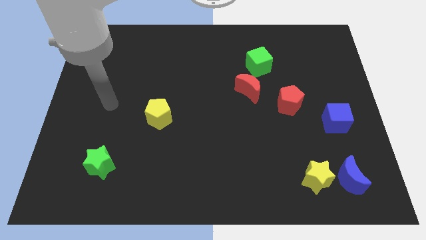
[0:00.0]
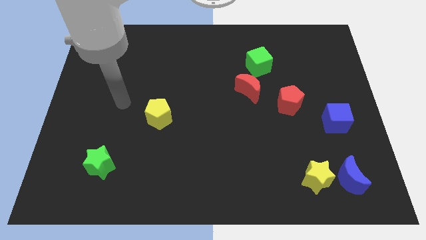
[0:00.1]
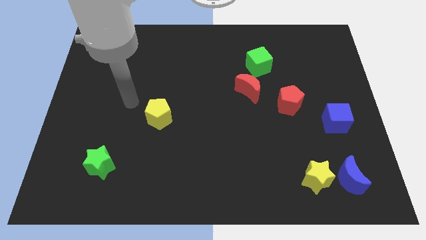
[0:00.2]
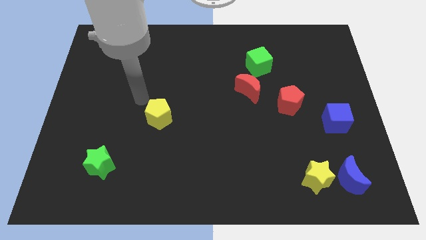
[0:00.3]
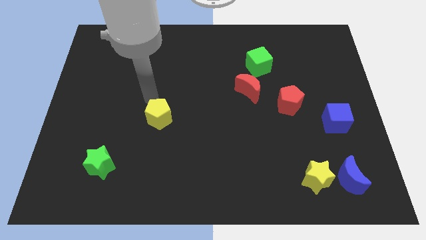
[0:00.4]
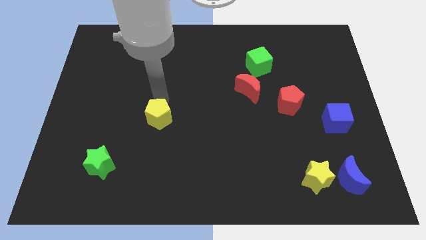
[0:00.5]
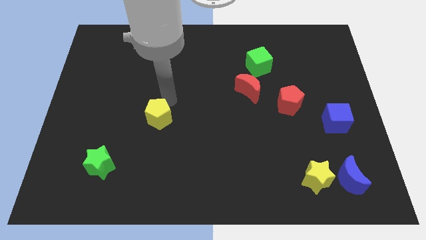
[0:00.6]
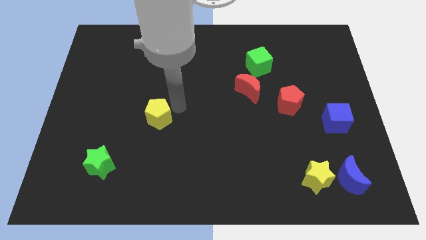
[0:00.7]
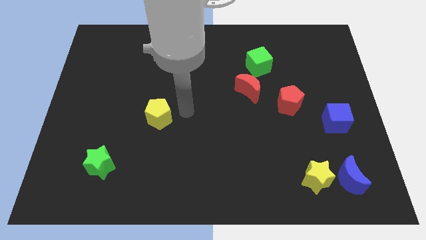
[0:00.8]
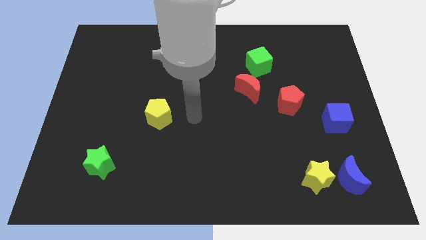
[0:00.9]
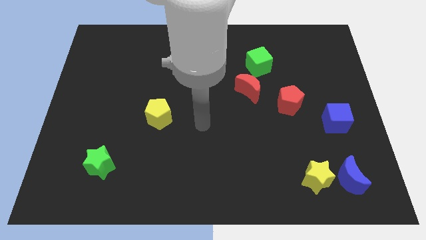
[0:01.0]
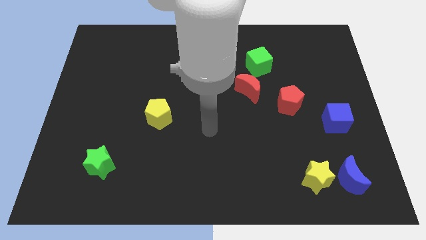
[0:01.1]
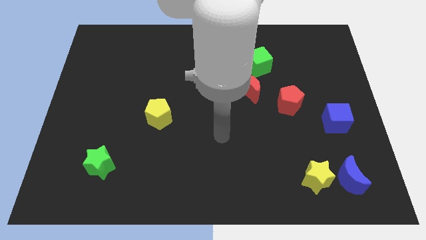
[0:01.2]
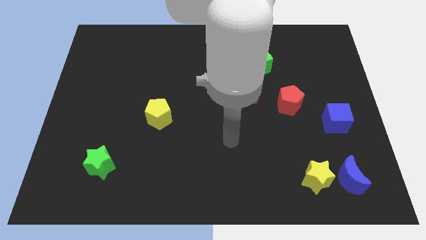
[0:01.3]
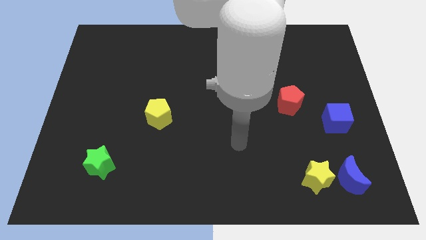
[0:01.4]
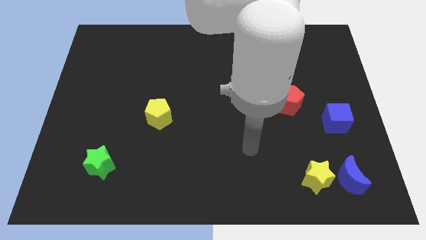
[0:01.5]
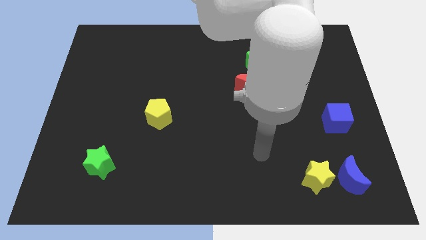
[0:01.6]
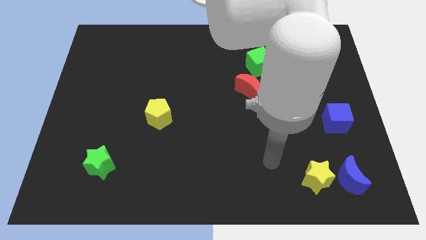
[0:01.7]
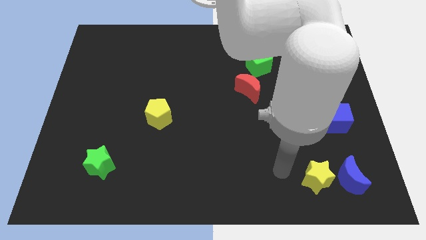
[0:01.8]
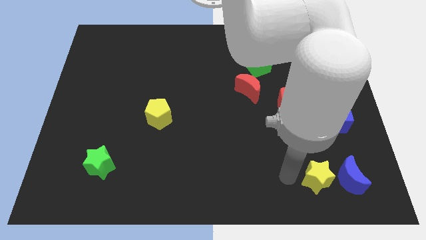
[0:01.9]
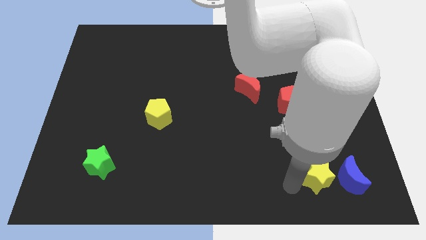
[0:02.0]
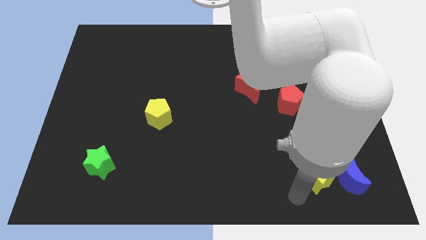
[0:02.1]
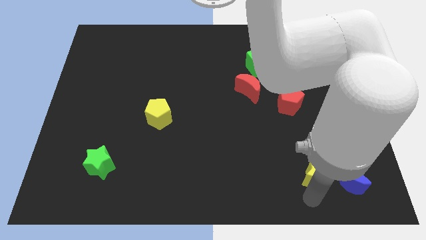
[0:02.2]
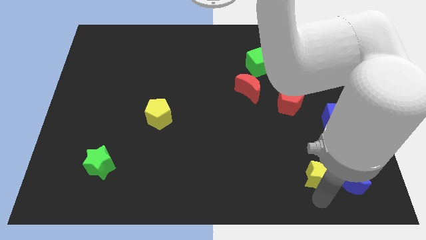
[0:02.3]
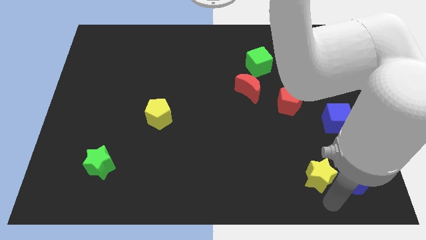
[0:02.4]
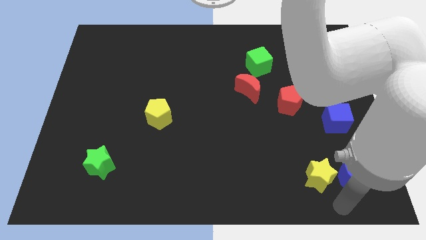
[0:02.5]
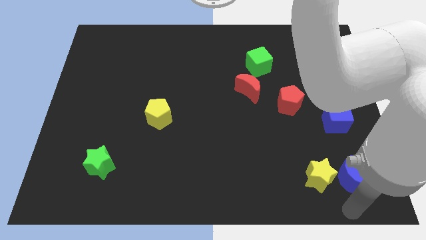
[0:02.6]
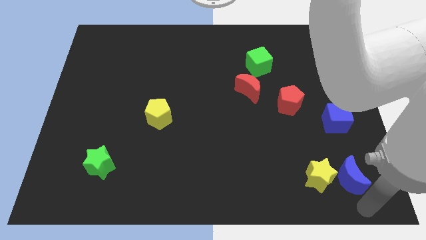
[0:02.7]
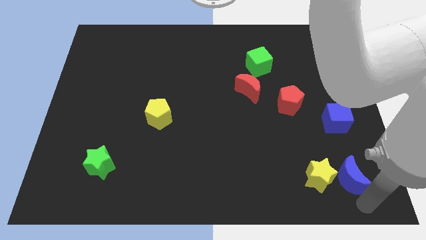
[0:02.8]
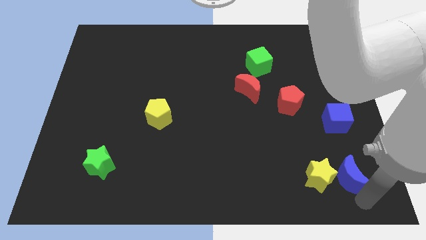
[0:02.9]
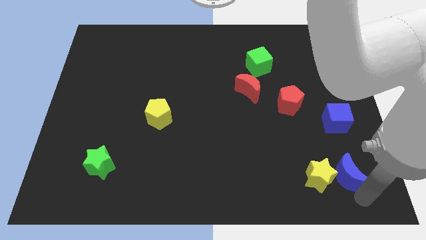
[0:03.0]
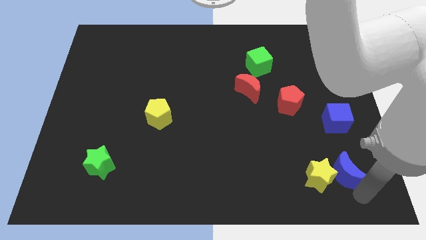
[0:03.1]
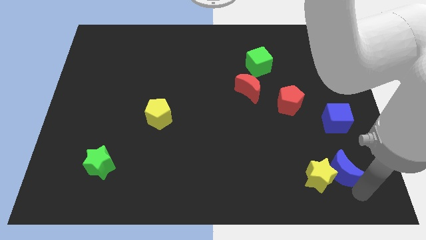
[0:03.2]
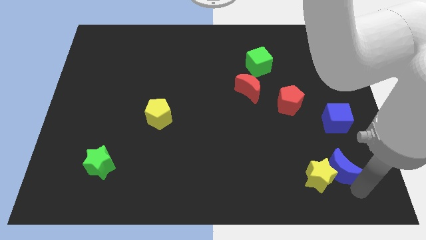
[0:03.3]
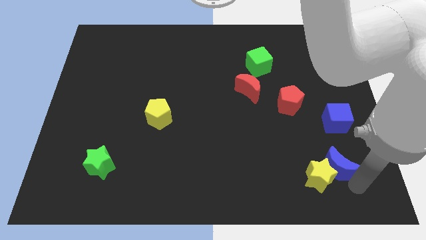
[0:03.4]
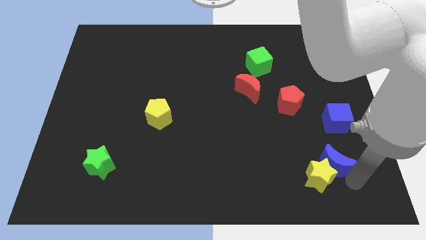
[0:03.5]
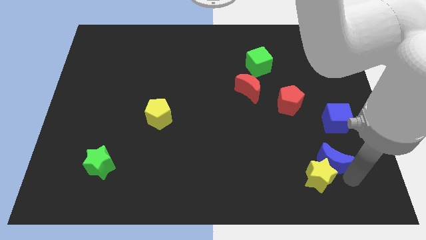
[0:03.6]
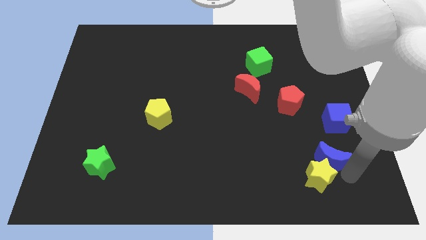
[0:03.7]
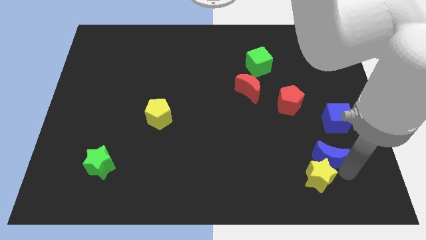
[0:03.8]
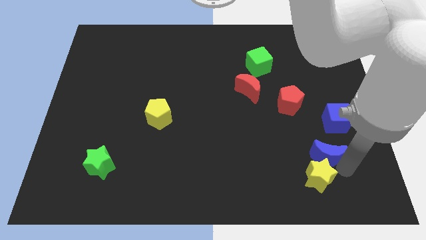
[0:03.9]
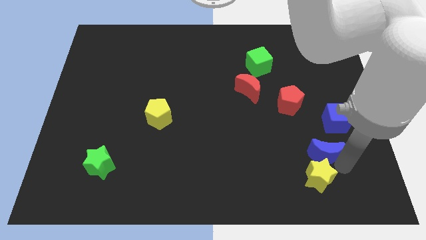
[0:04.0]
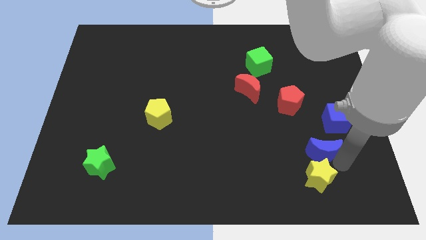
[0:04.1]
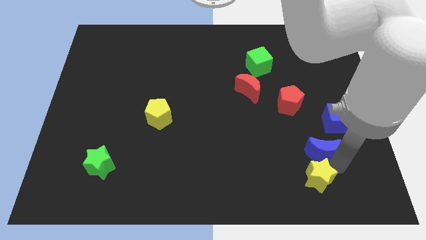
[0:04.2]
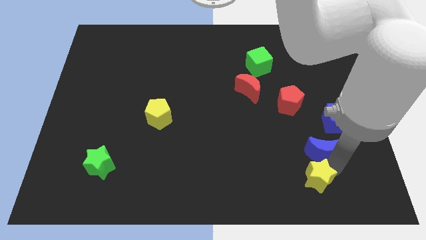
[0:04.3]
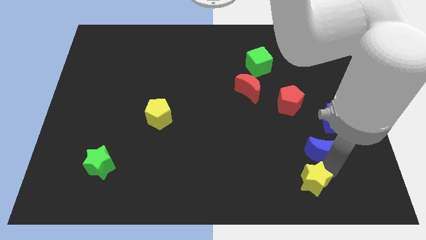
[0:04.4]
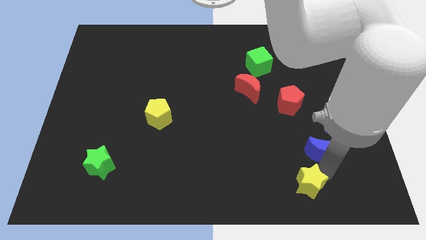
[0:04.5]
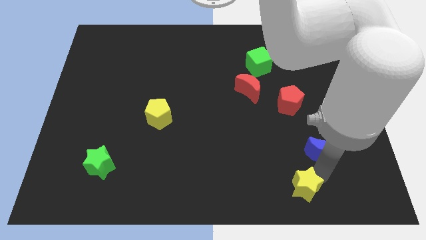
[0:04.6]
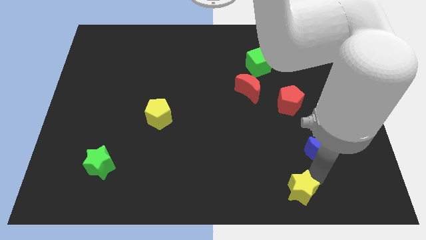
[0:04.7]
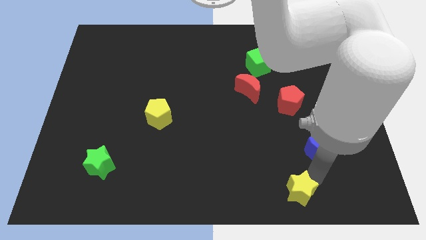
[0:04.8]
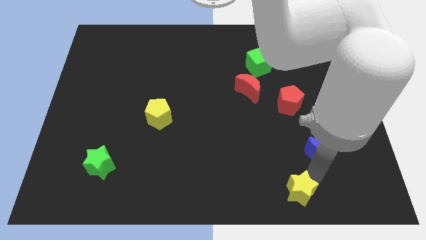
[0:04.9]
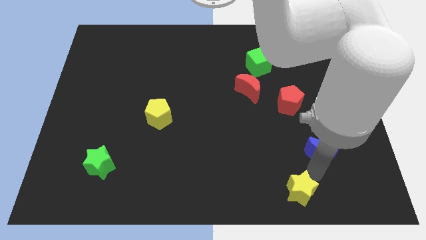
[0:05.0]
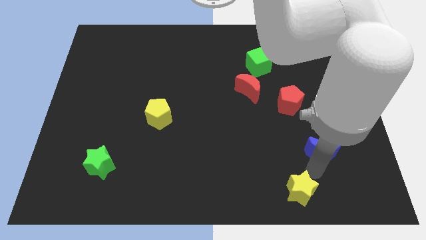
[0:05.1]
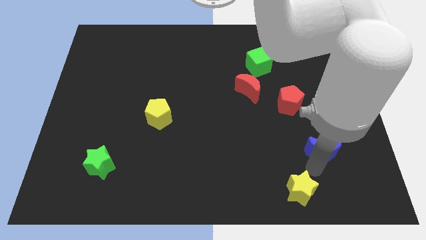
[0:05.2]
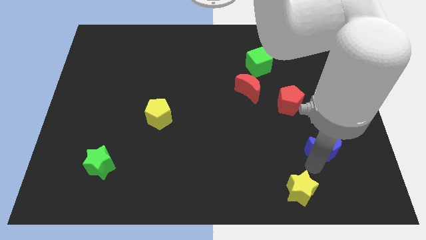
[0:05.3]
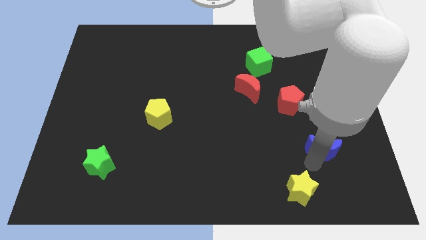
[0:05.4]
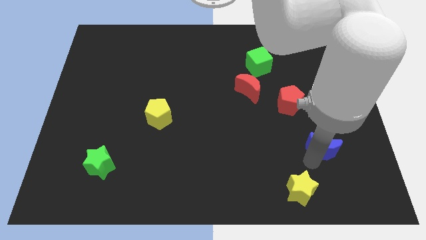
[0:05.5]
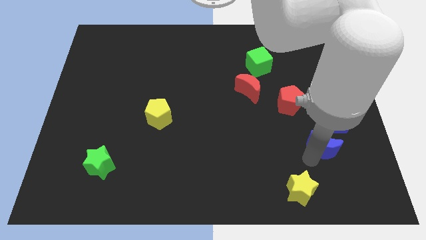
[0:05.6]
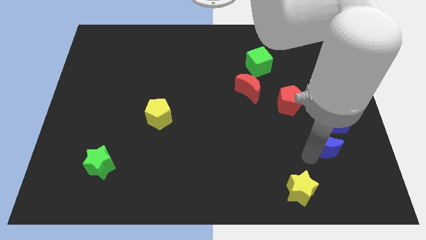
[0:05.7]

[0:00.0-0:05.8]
slide the blue moon slightly up

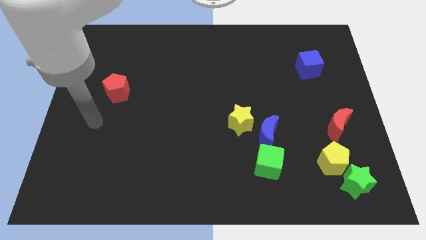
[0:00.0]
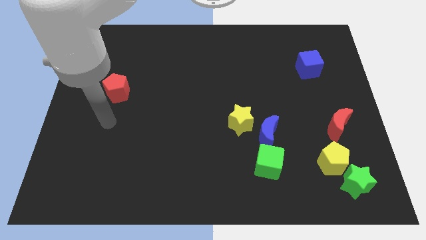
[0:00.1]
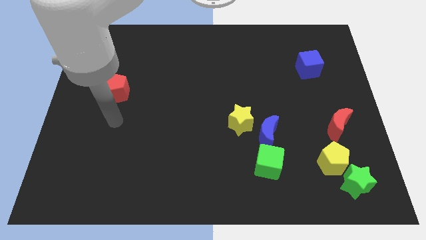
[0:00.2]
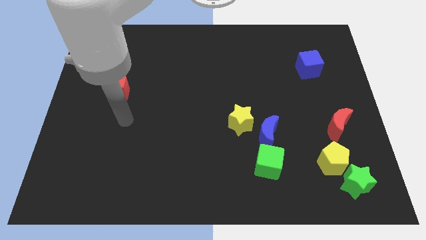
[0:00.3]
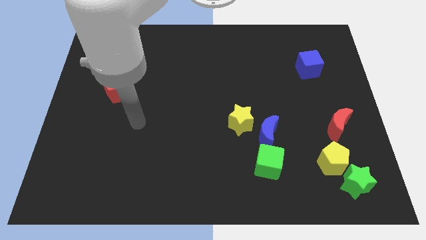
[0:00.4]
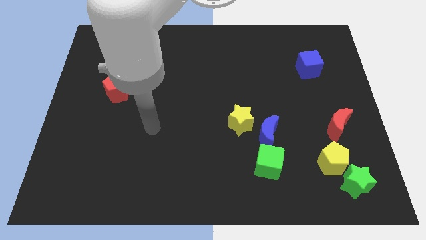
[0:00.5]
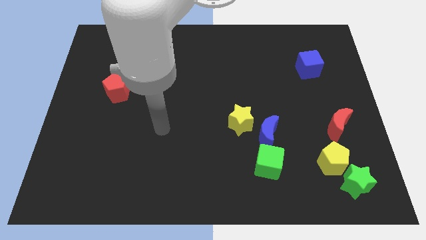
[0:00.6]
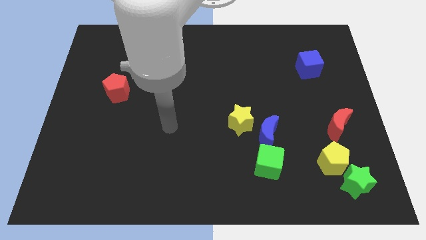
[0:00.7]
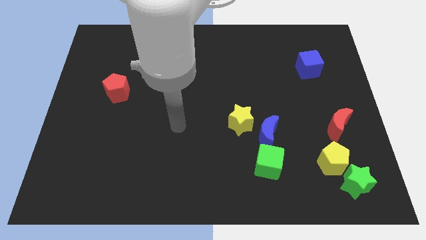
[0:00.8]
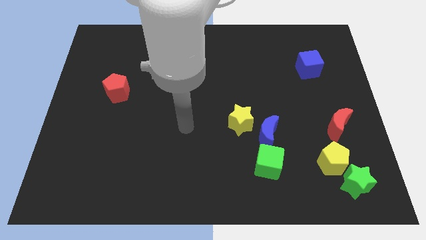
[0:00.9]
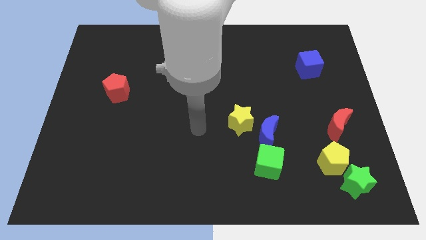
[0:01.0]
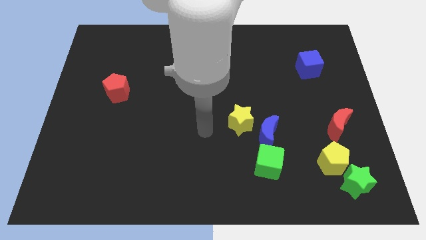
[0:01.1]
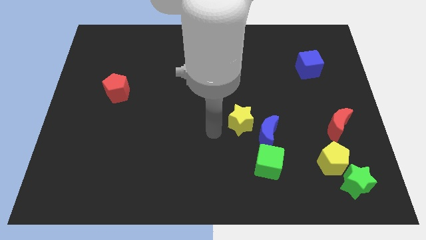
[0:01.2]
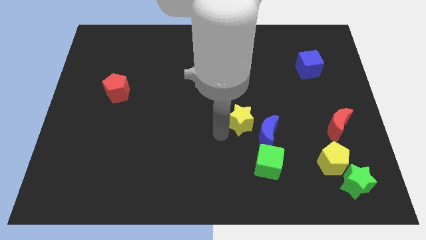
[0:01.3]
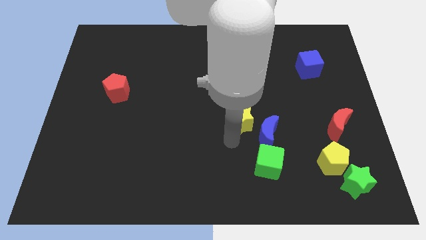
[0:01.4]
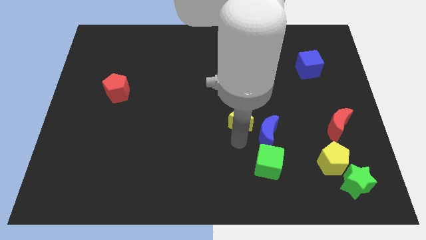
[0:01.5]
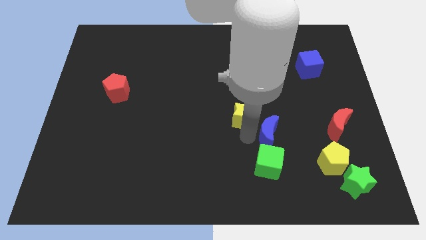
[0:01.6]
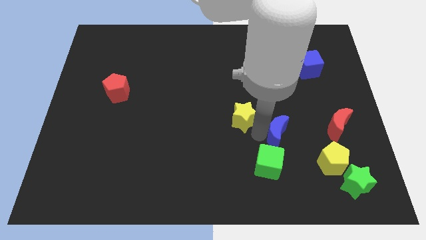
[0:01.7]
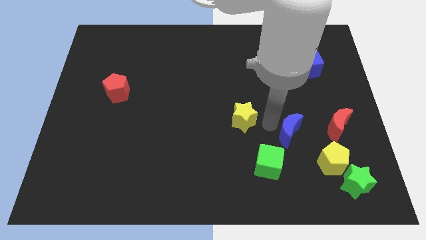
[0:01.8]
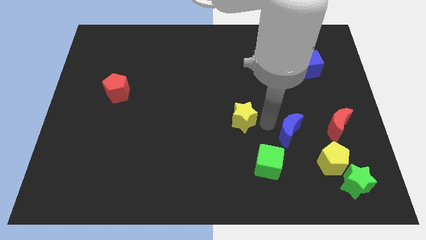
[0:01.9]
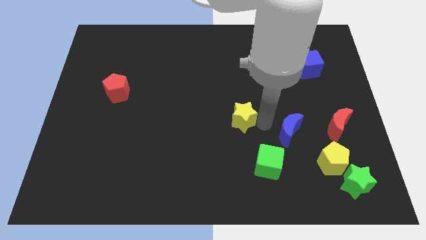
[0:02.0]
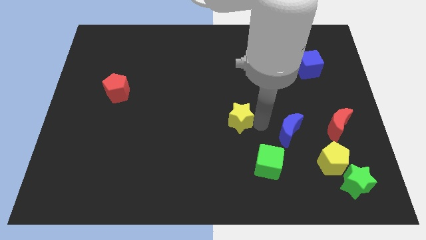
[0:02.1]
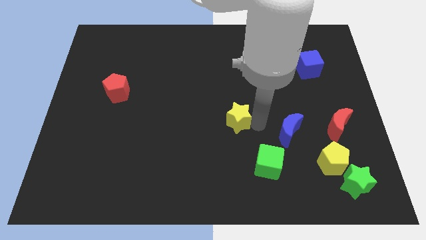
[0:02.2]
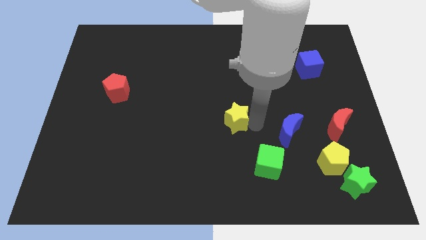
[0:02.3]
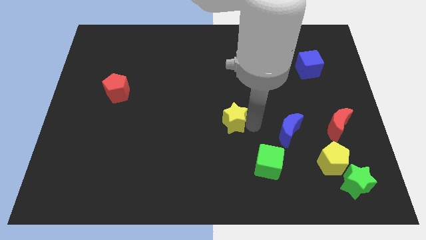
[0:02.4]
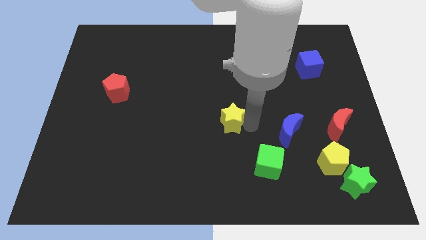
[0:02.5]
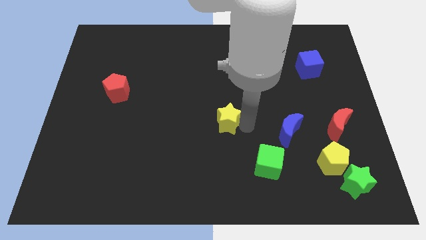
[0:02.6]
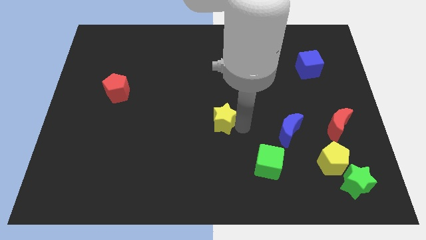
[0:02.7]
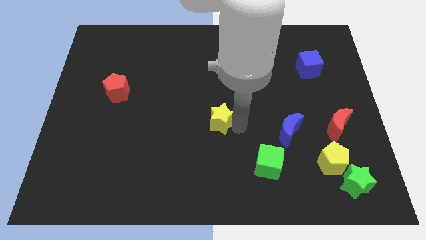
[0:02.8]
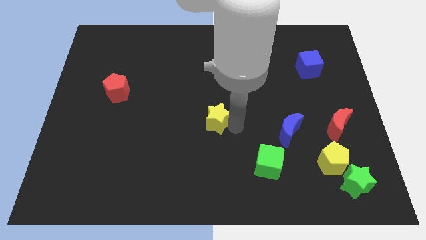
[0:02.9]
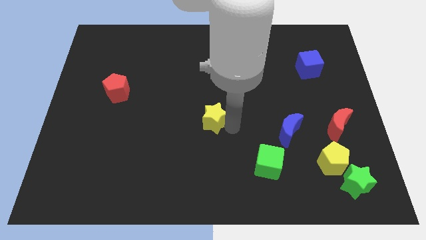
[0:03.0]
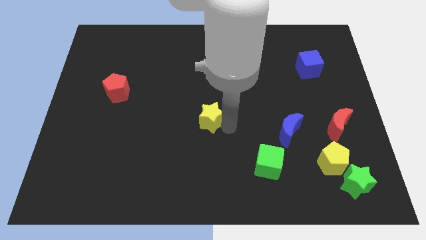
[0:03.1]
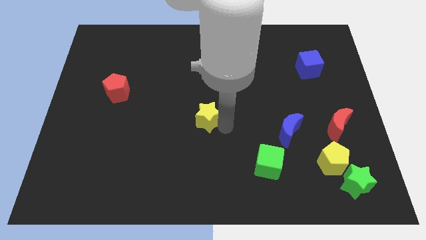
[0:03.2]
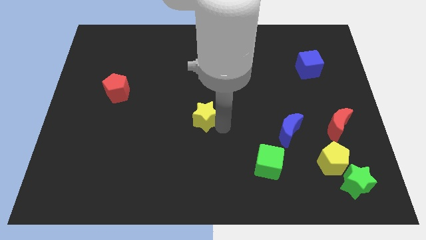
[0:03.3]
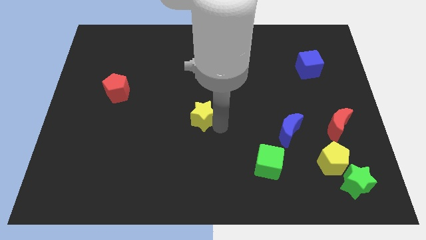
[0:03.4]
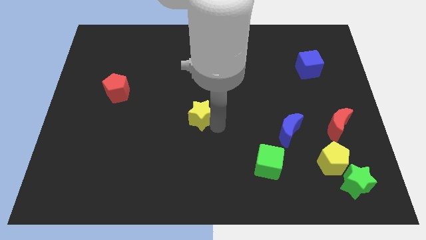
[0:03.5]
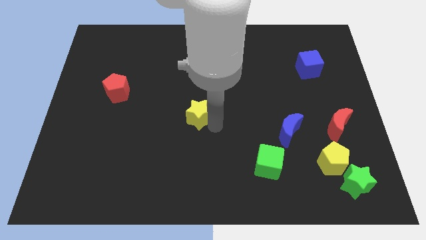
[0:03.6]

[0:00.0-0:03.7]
slightly push the yellow star diagonally upwards and to the left
